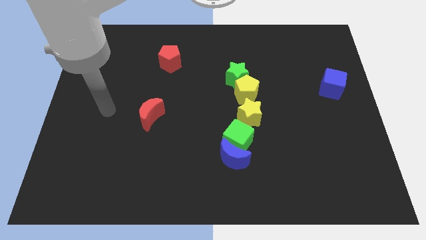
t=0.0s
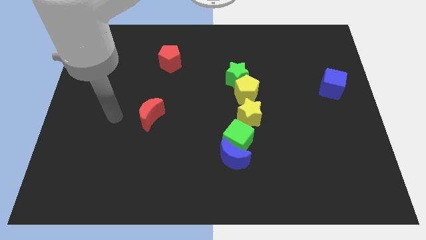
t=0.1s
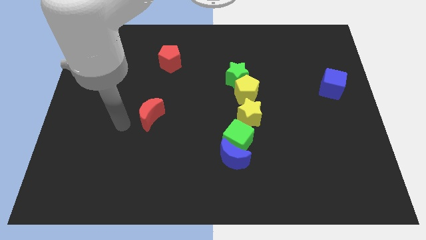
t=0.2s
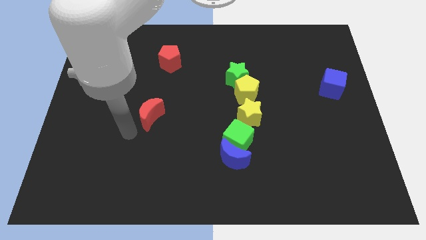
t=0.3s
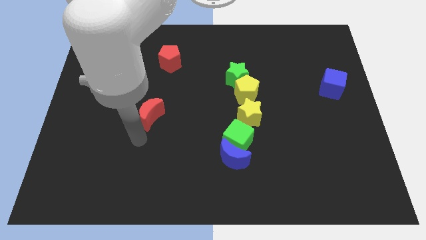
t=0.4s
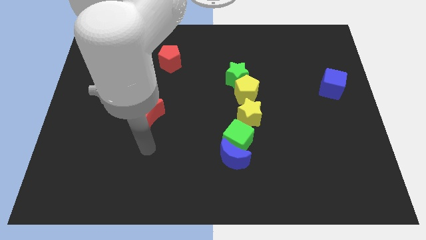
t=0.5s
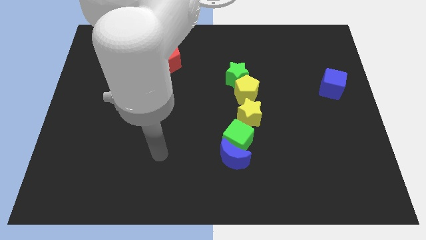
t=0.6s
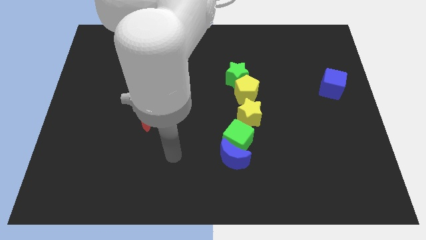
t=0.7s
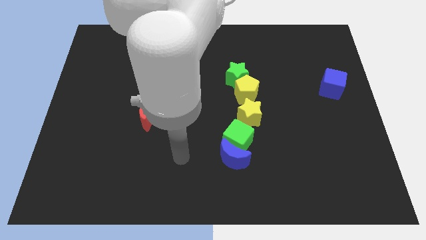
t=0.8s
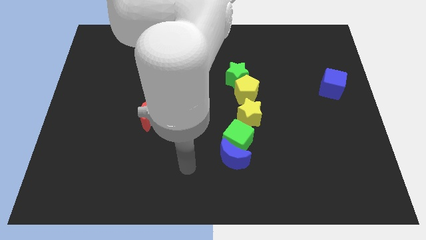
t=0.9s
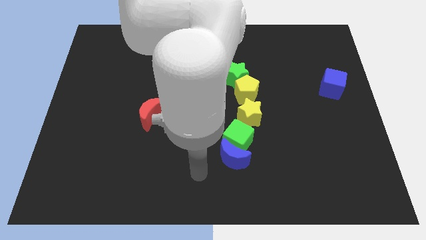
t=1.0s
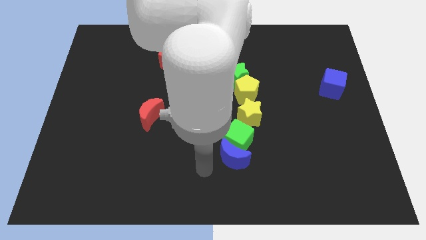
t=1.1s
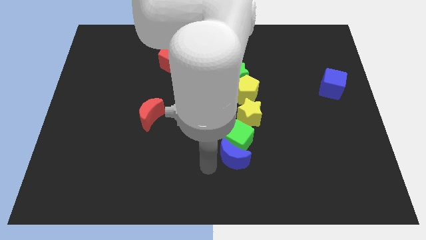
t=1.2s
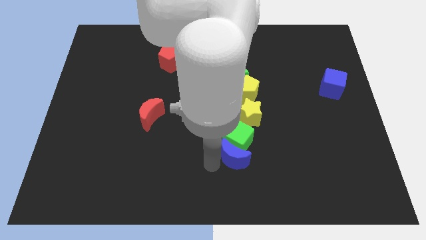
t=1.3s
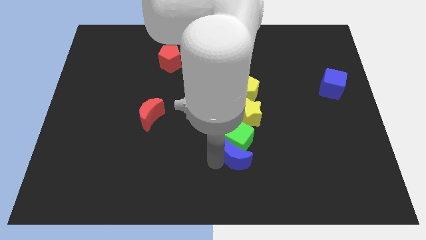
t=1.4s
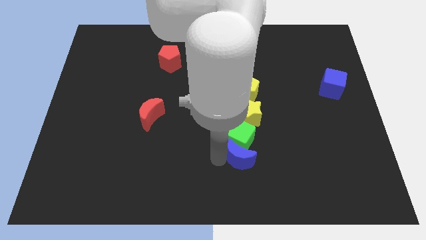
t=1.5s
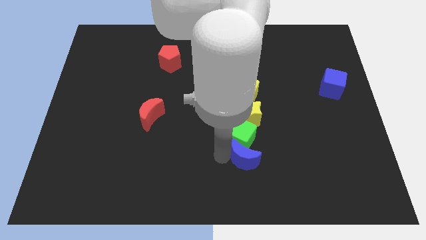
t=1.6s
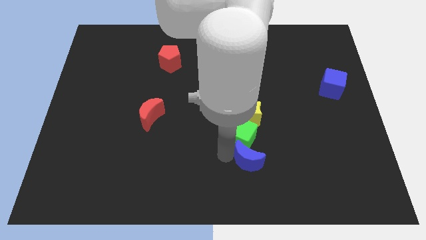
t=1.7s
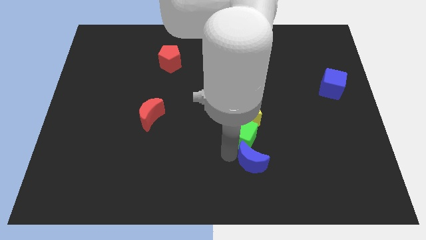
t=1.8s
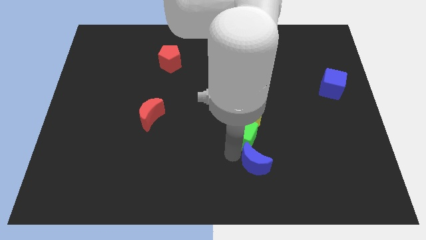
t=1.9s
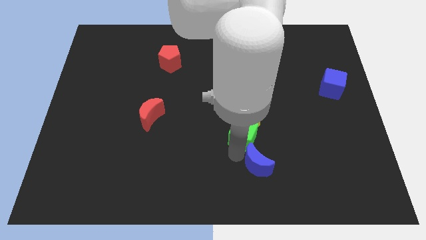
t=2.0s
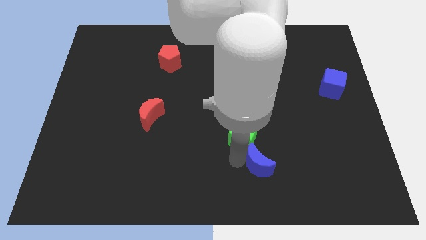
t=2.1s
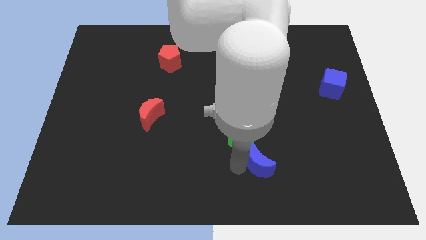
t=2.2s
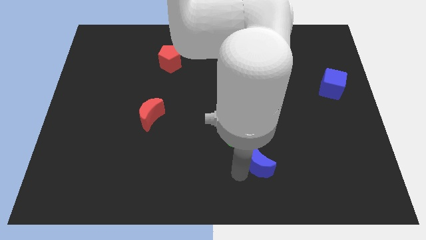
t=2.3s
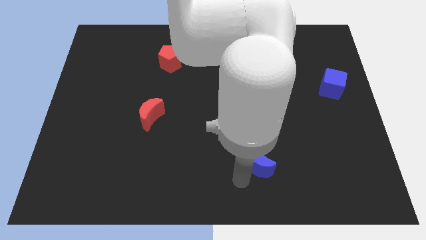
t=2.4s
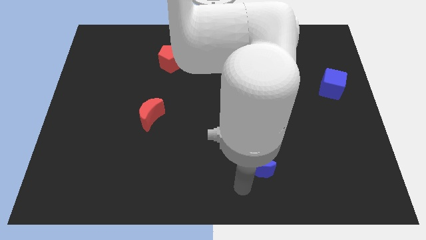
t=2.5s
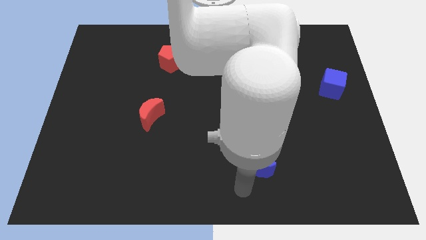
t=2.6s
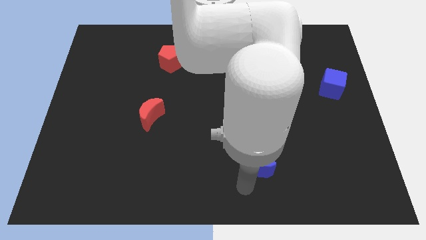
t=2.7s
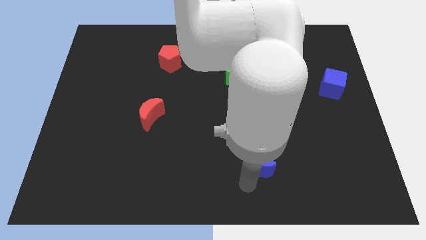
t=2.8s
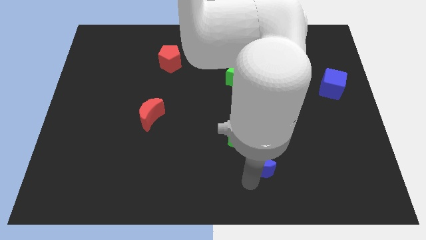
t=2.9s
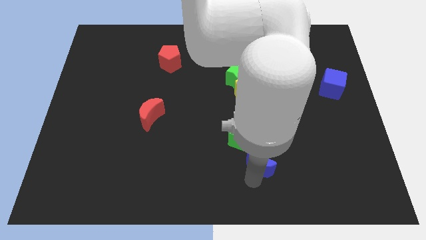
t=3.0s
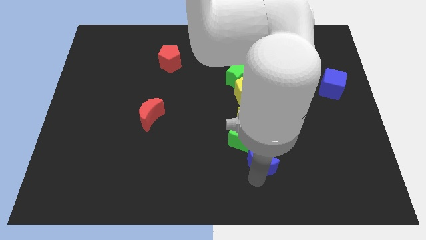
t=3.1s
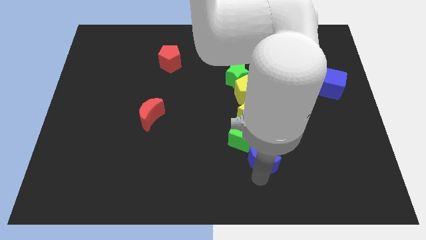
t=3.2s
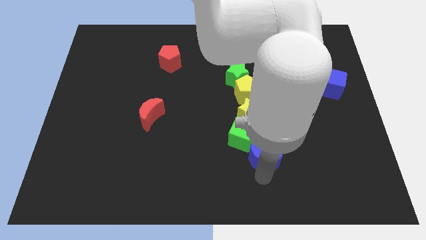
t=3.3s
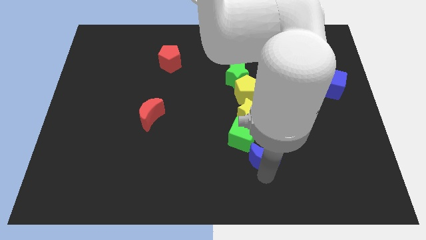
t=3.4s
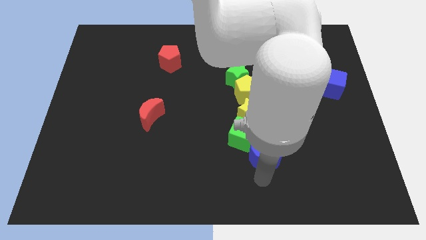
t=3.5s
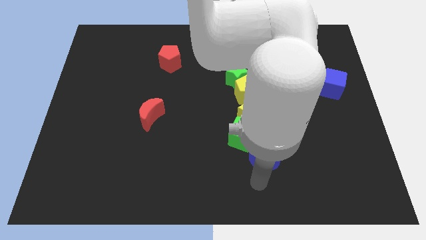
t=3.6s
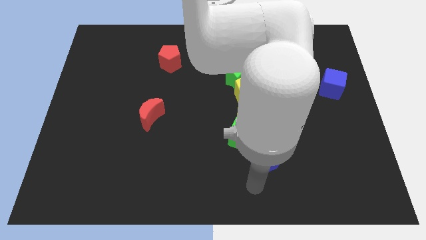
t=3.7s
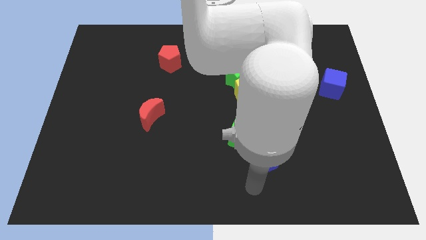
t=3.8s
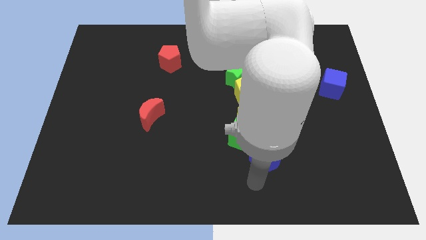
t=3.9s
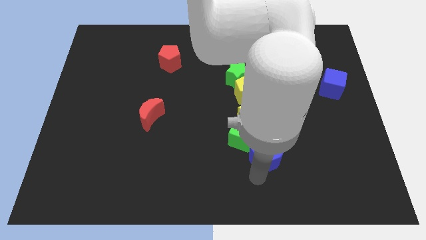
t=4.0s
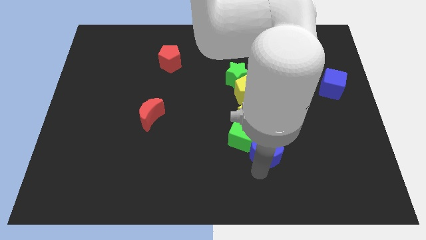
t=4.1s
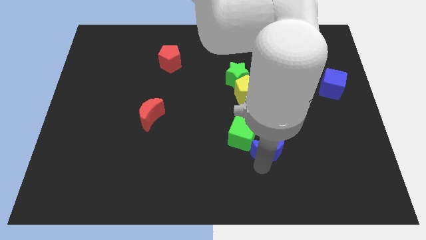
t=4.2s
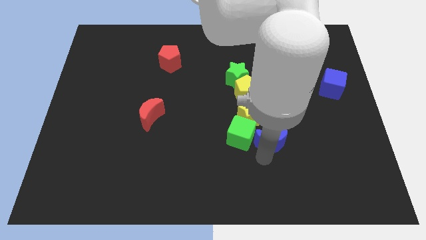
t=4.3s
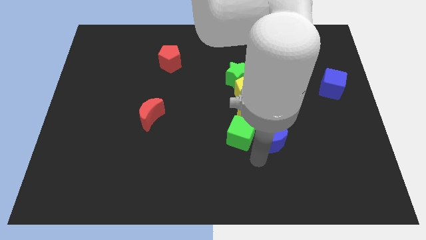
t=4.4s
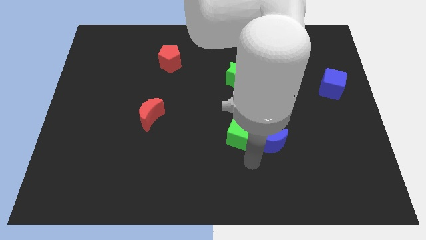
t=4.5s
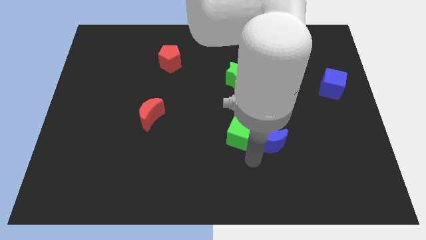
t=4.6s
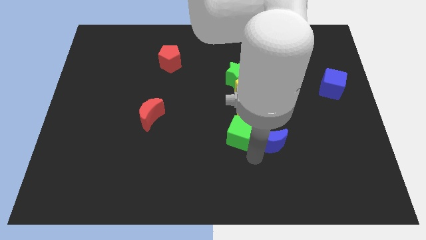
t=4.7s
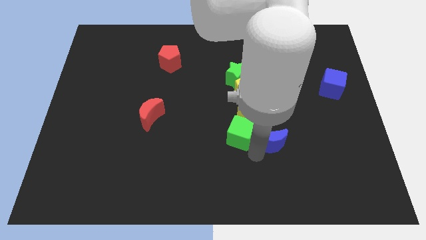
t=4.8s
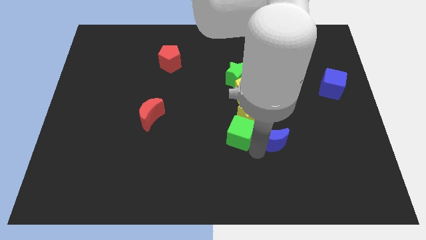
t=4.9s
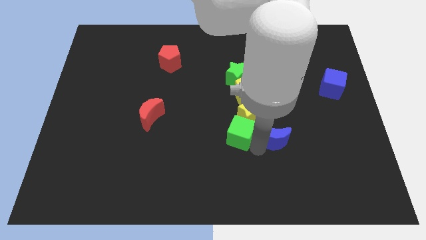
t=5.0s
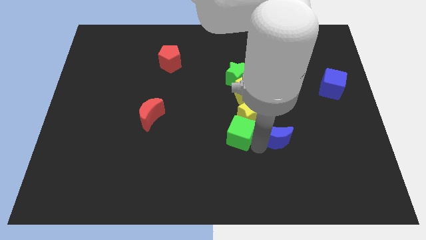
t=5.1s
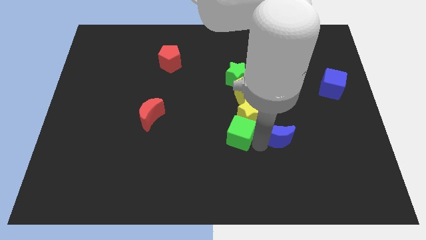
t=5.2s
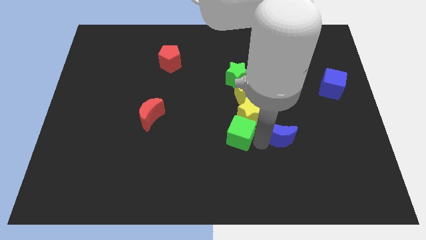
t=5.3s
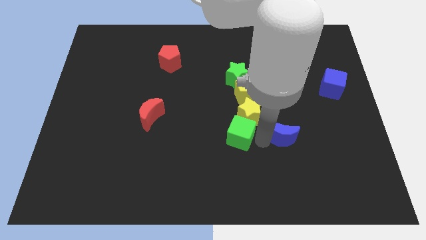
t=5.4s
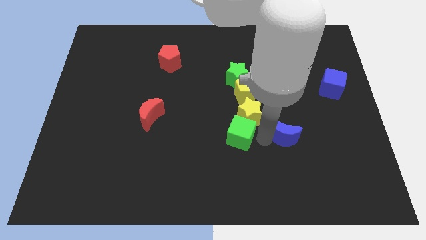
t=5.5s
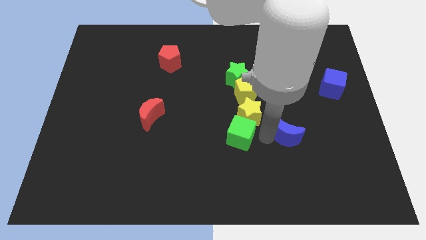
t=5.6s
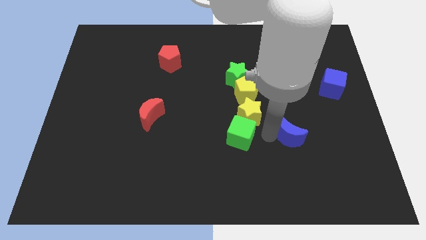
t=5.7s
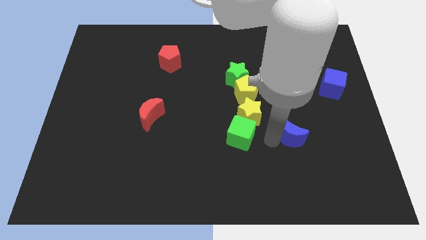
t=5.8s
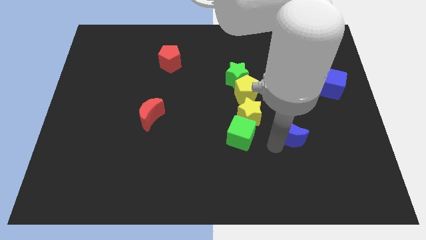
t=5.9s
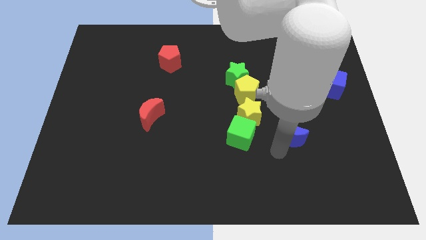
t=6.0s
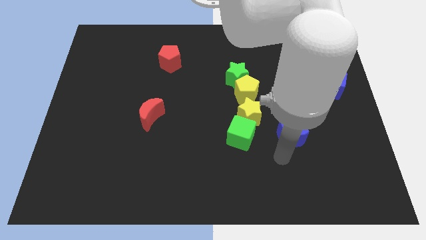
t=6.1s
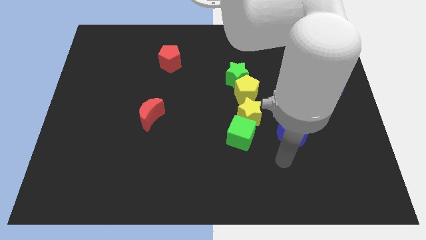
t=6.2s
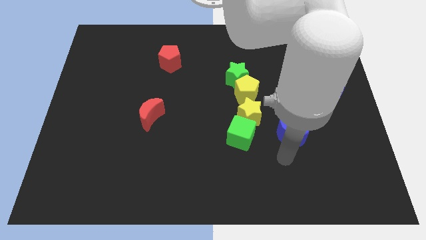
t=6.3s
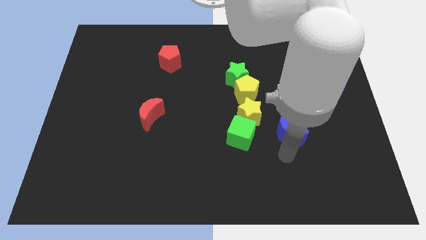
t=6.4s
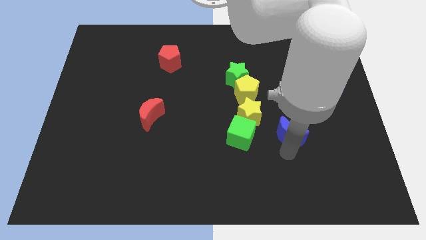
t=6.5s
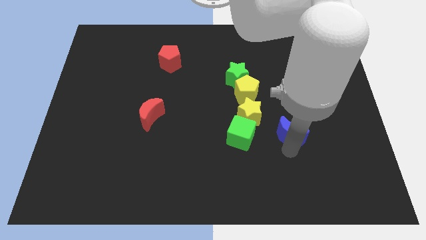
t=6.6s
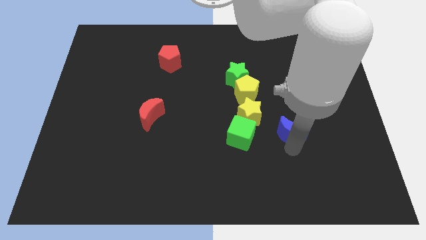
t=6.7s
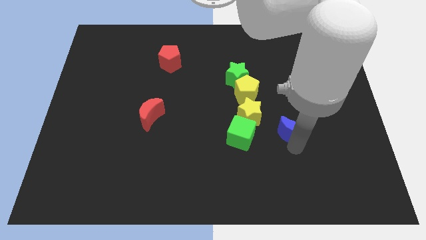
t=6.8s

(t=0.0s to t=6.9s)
slide the blue moon to the right side of the yellow star
